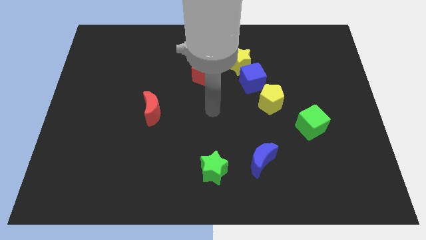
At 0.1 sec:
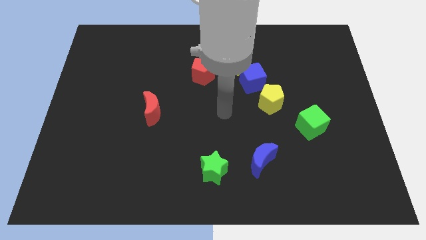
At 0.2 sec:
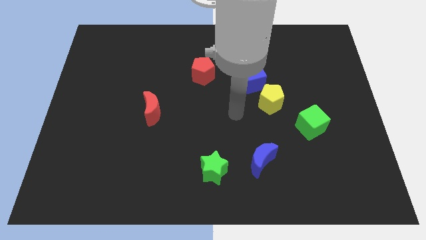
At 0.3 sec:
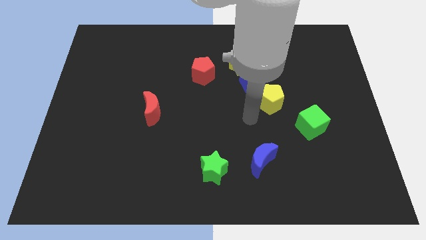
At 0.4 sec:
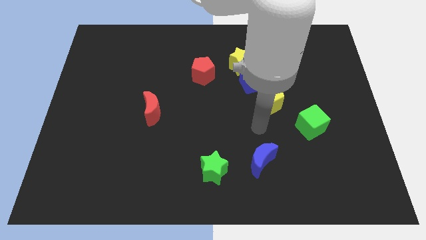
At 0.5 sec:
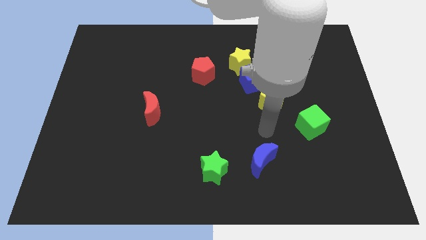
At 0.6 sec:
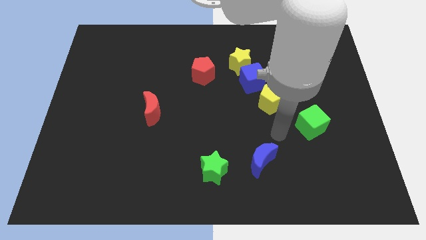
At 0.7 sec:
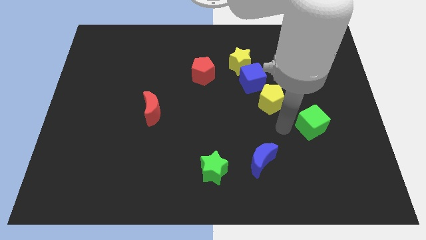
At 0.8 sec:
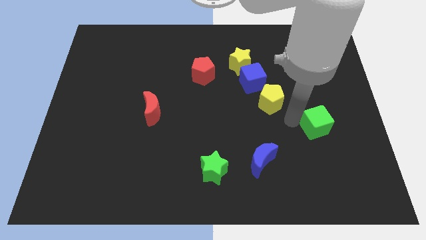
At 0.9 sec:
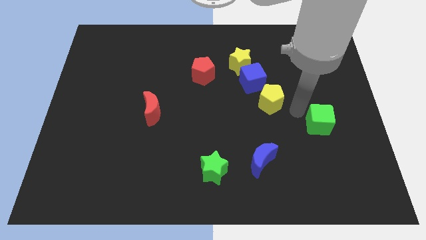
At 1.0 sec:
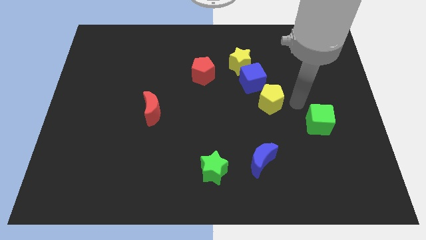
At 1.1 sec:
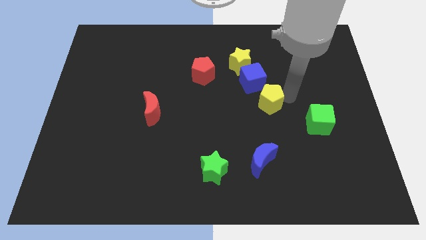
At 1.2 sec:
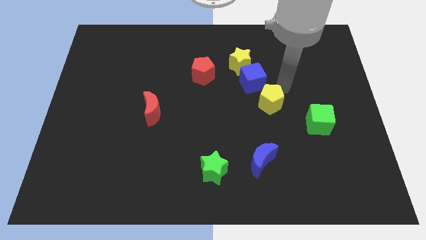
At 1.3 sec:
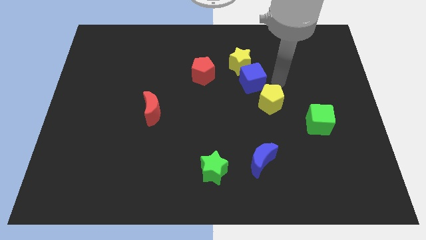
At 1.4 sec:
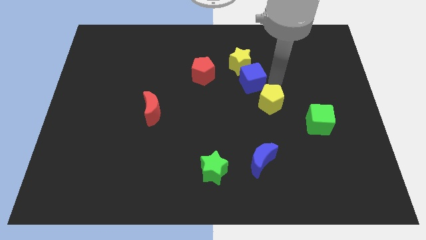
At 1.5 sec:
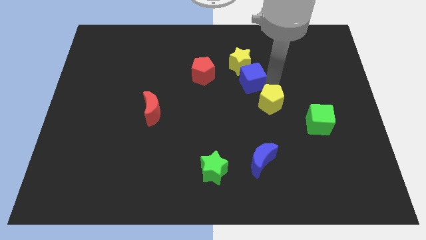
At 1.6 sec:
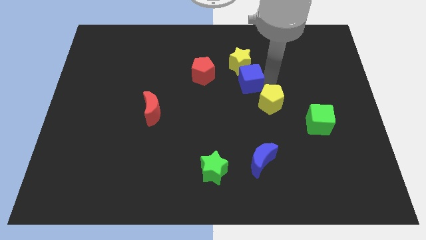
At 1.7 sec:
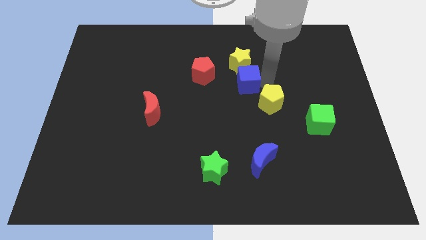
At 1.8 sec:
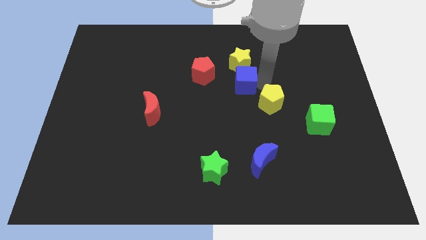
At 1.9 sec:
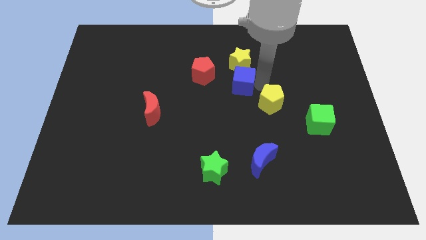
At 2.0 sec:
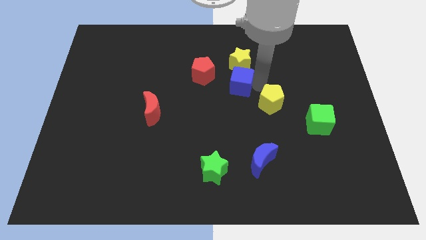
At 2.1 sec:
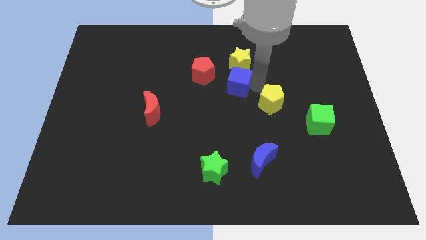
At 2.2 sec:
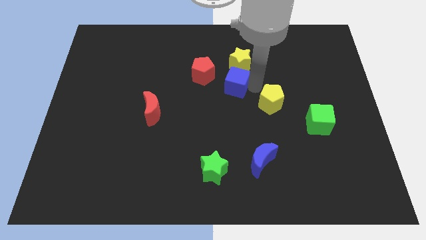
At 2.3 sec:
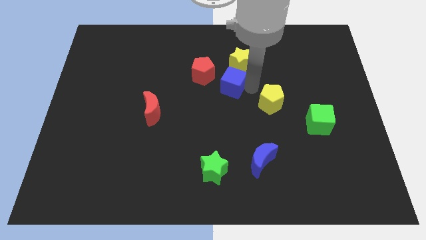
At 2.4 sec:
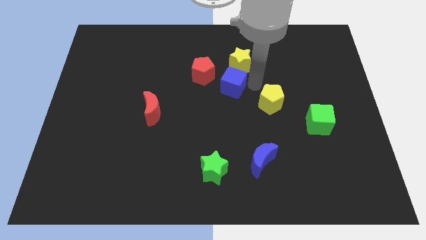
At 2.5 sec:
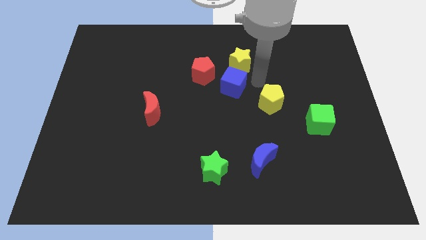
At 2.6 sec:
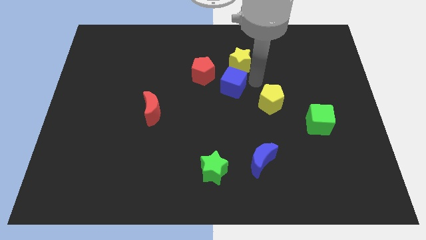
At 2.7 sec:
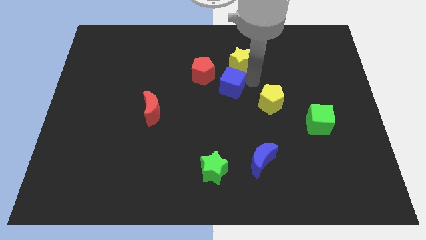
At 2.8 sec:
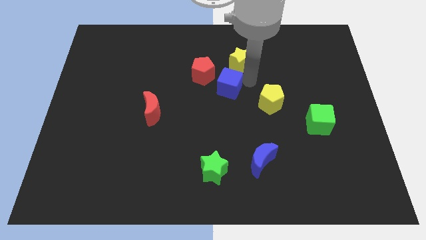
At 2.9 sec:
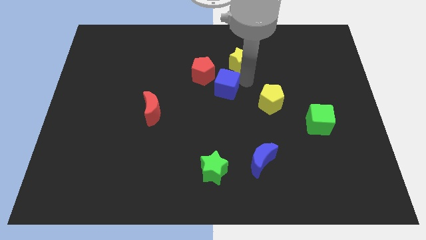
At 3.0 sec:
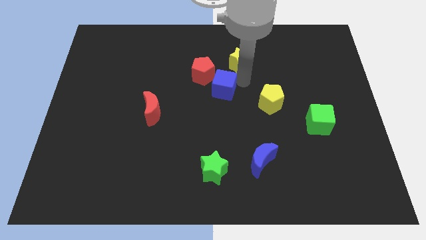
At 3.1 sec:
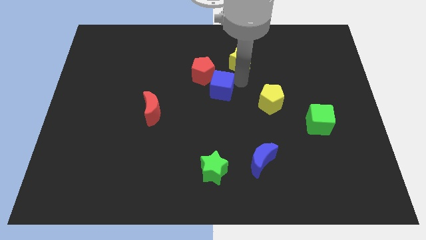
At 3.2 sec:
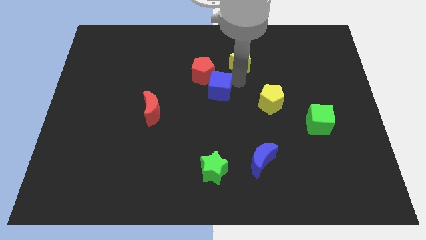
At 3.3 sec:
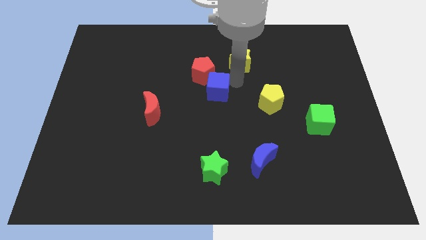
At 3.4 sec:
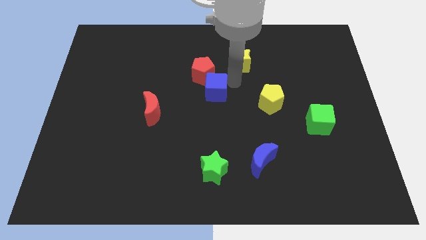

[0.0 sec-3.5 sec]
separate the blue cube from the yellow star and yellow pentagon

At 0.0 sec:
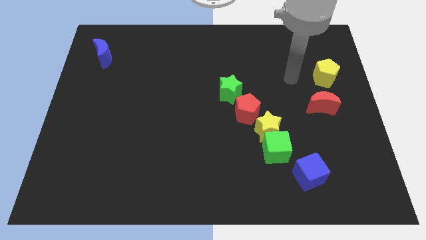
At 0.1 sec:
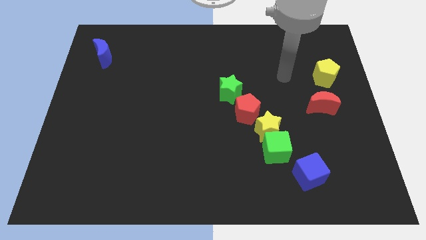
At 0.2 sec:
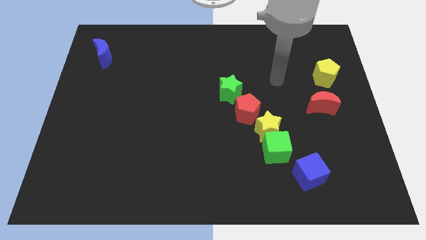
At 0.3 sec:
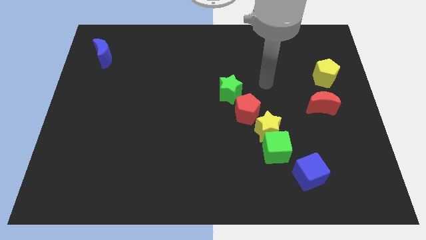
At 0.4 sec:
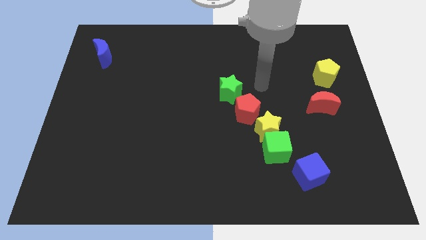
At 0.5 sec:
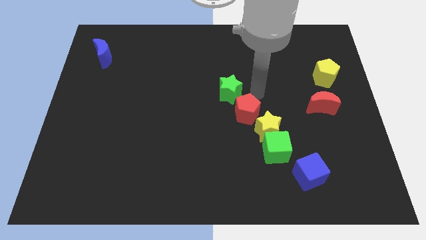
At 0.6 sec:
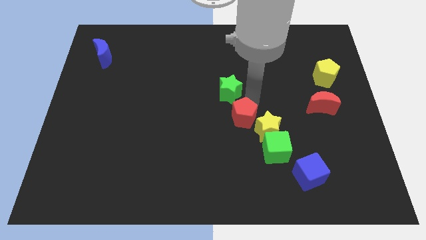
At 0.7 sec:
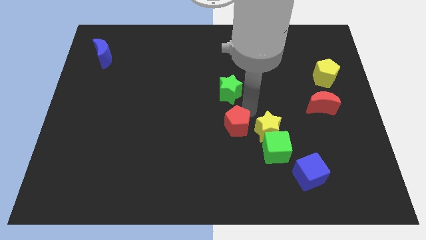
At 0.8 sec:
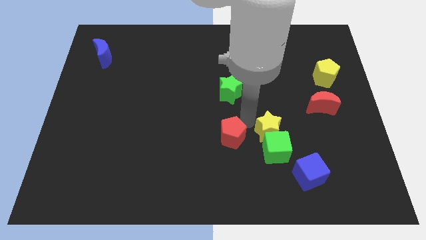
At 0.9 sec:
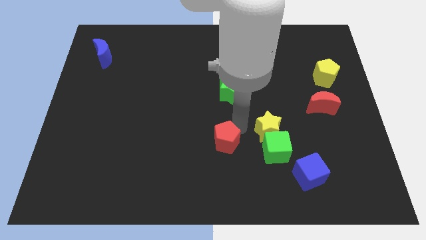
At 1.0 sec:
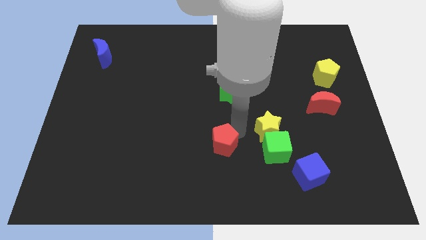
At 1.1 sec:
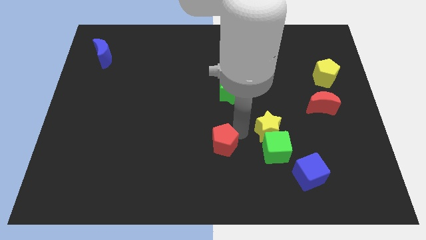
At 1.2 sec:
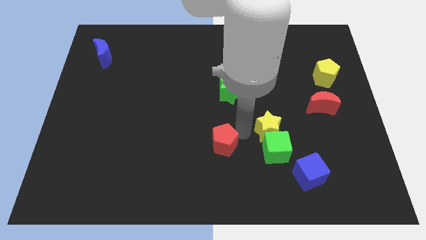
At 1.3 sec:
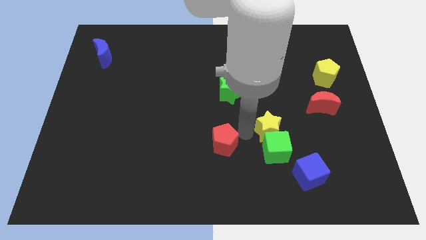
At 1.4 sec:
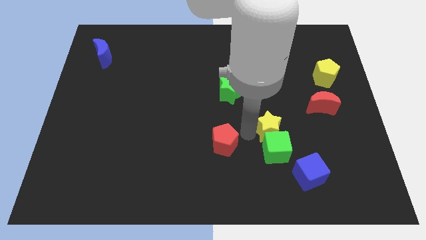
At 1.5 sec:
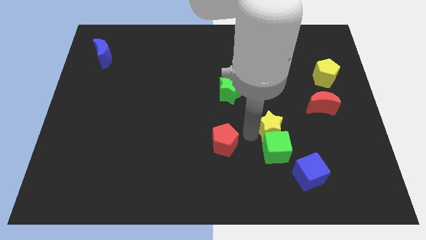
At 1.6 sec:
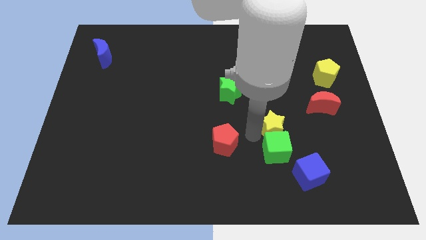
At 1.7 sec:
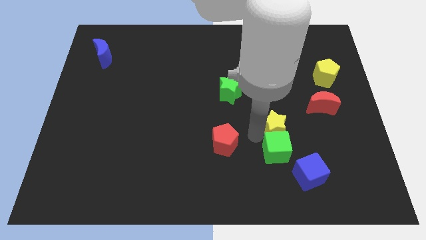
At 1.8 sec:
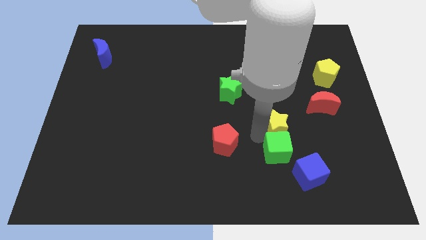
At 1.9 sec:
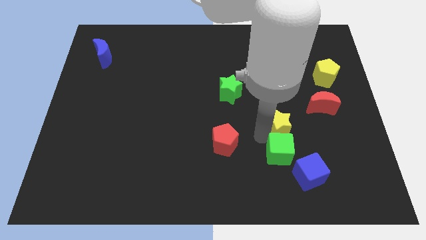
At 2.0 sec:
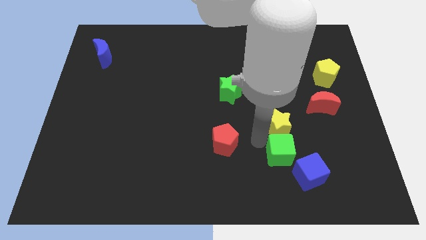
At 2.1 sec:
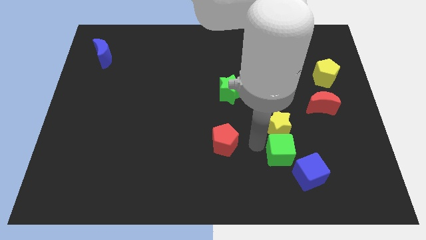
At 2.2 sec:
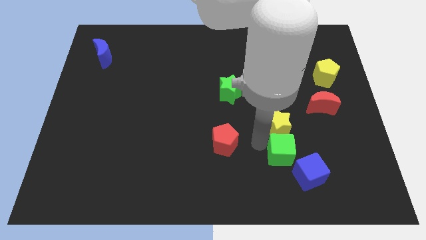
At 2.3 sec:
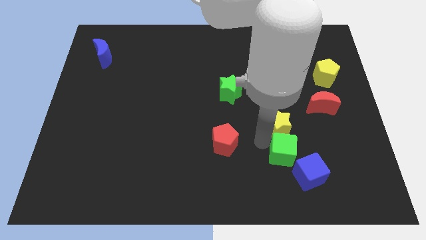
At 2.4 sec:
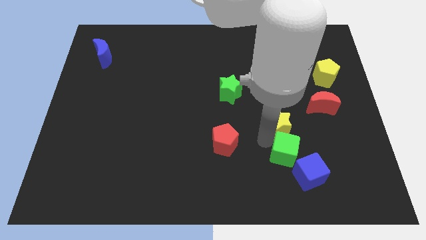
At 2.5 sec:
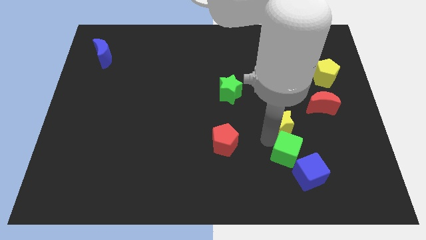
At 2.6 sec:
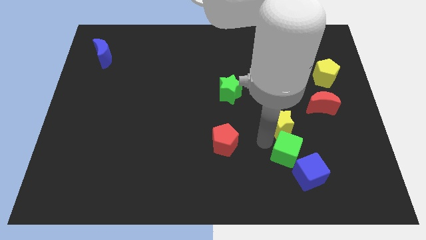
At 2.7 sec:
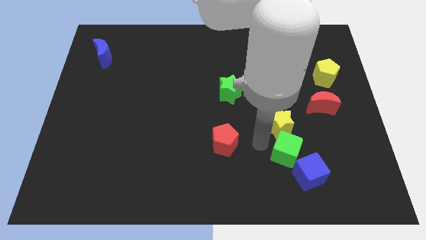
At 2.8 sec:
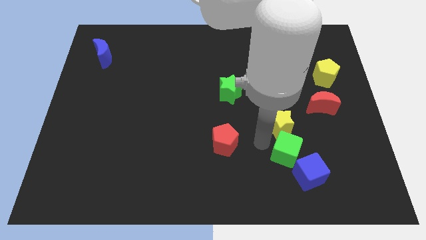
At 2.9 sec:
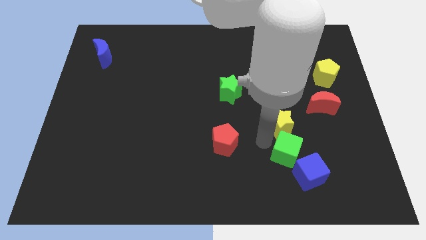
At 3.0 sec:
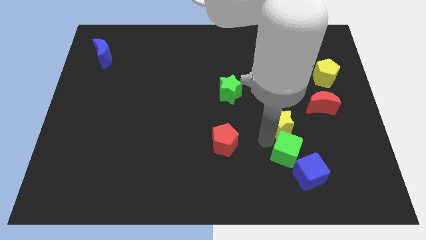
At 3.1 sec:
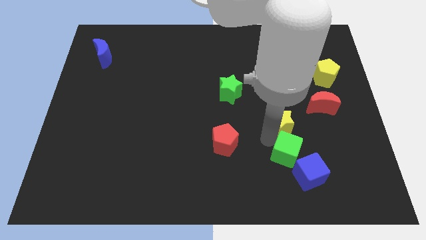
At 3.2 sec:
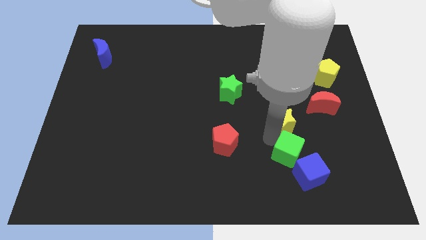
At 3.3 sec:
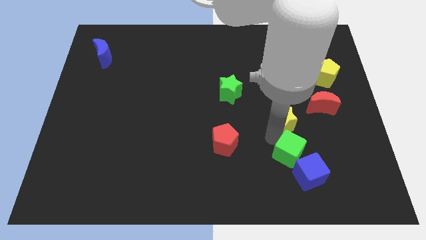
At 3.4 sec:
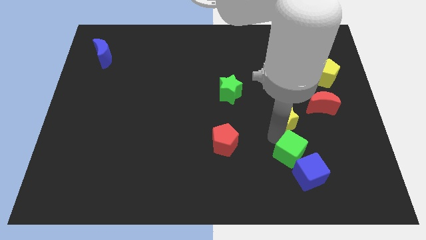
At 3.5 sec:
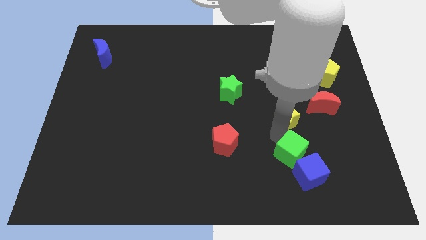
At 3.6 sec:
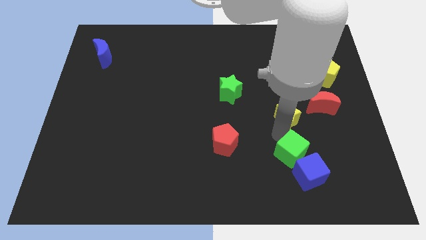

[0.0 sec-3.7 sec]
pull the yellow star apart from the green cube and red pentagon

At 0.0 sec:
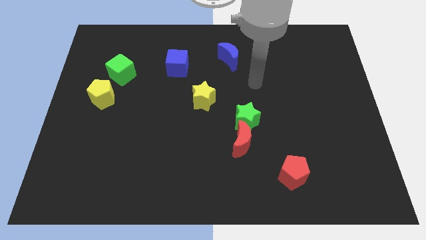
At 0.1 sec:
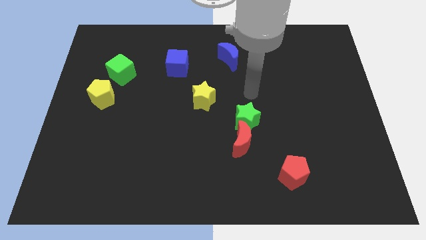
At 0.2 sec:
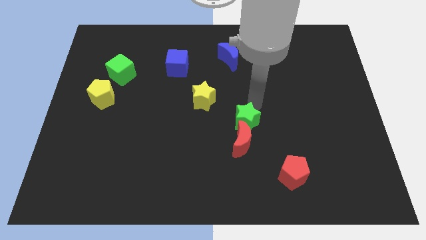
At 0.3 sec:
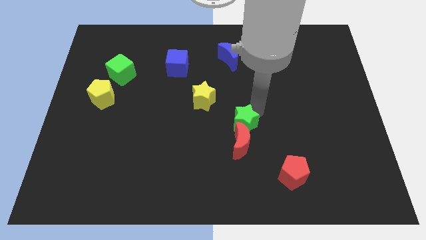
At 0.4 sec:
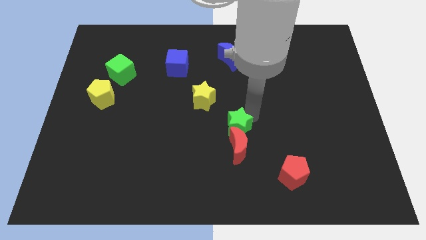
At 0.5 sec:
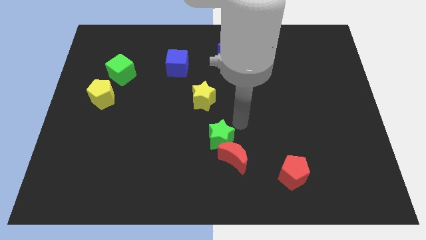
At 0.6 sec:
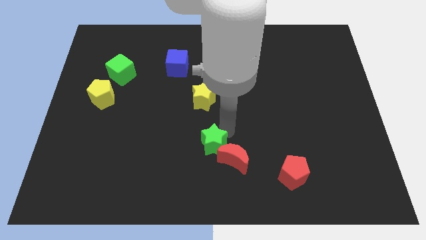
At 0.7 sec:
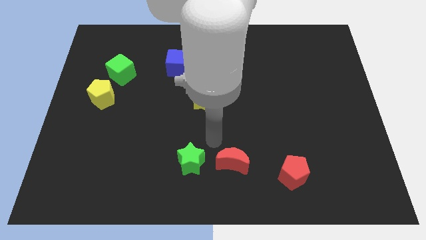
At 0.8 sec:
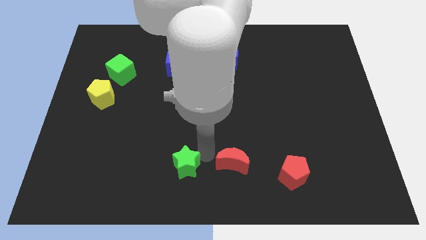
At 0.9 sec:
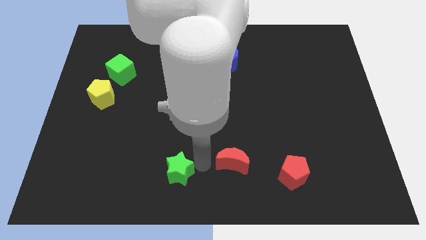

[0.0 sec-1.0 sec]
pull the red moon apart from the green star

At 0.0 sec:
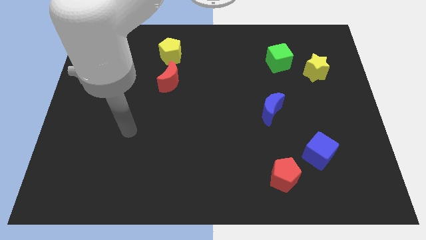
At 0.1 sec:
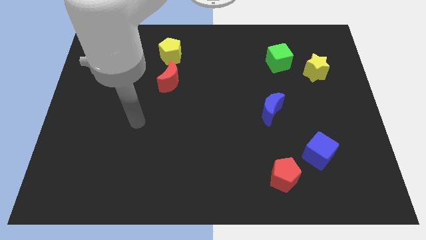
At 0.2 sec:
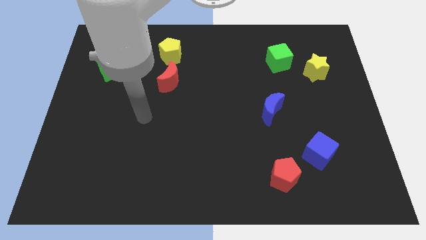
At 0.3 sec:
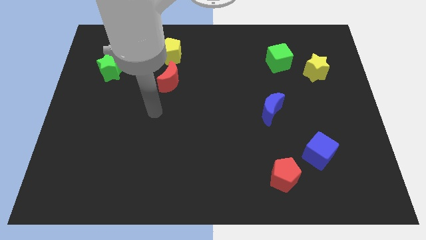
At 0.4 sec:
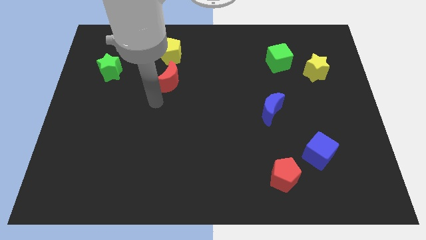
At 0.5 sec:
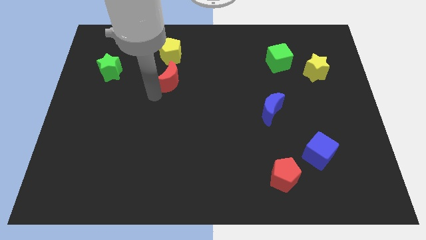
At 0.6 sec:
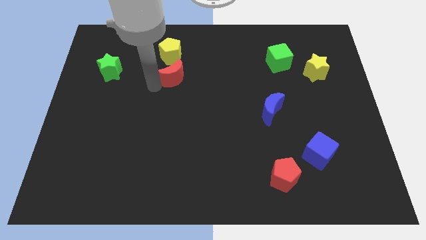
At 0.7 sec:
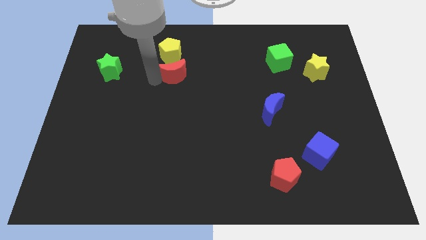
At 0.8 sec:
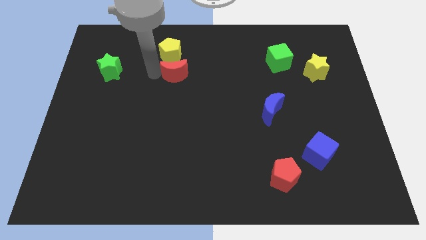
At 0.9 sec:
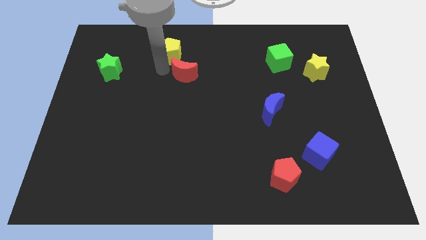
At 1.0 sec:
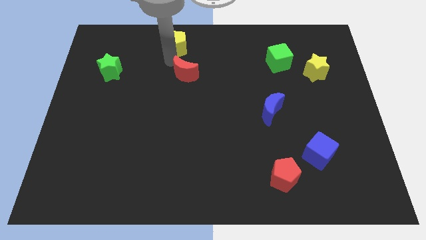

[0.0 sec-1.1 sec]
move the red moon away from the yellow pentagon
